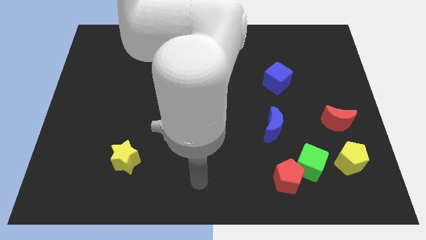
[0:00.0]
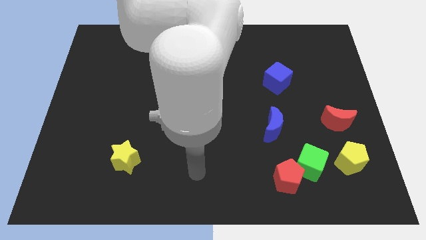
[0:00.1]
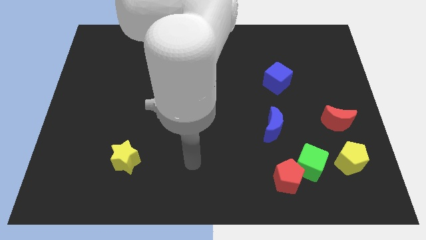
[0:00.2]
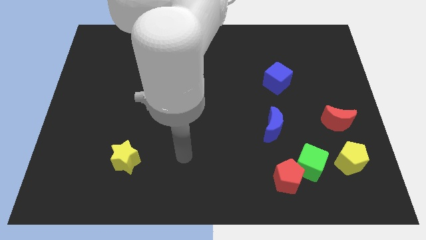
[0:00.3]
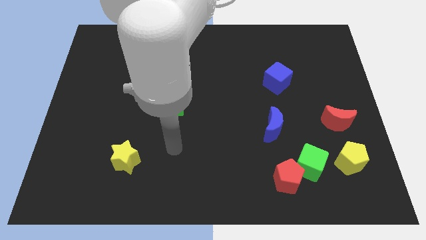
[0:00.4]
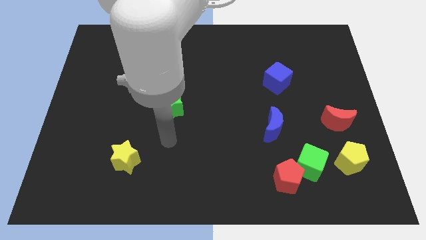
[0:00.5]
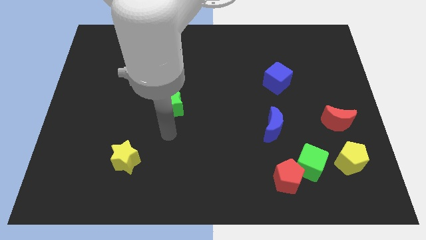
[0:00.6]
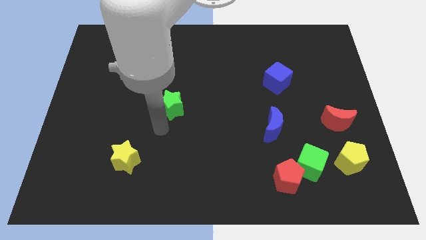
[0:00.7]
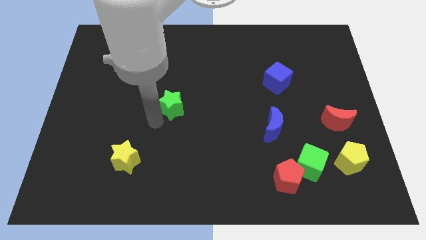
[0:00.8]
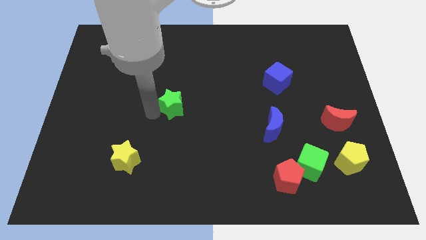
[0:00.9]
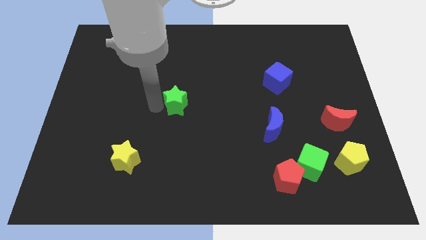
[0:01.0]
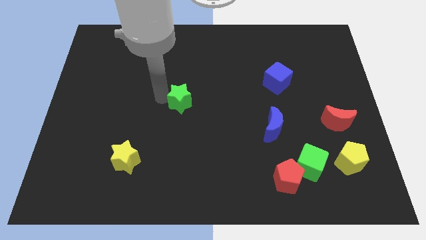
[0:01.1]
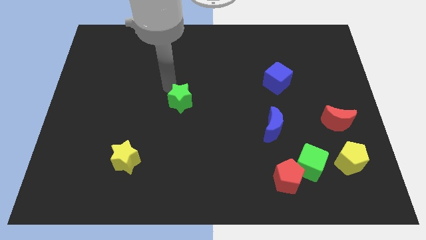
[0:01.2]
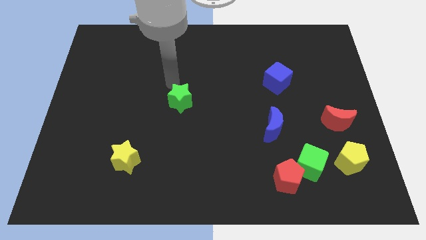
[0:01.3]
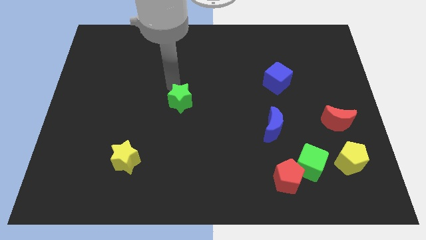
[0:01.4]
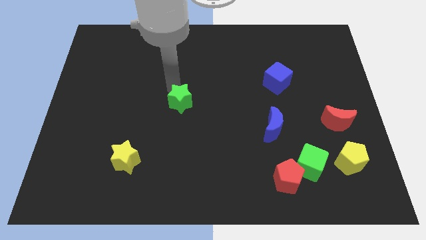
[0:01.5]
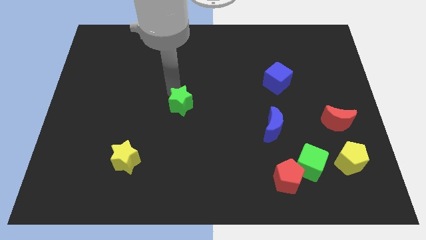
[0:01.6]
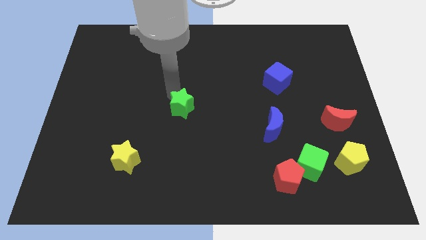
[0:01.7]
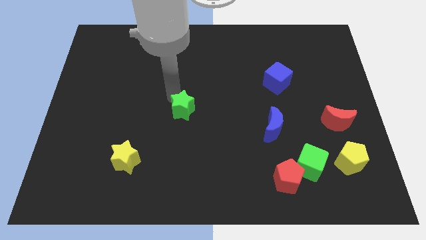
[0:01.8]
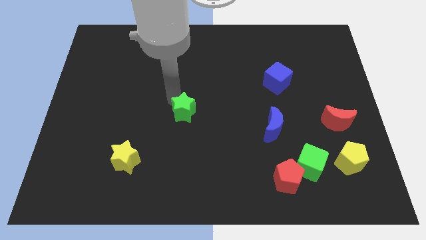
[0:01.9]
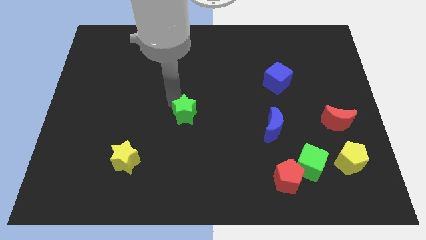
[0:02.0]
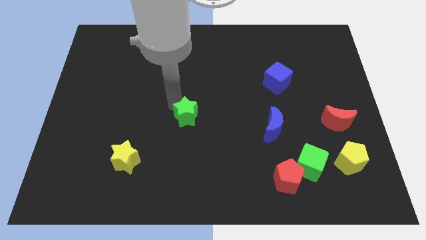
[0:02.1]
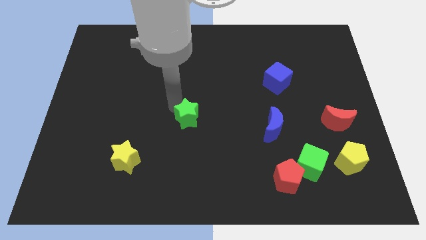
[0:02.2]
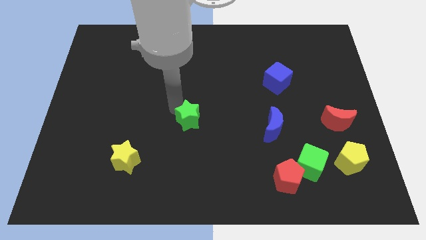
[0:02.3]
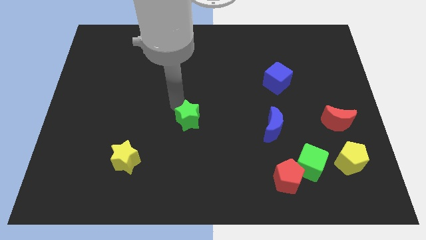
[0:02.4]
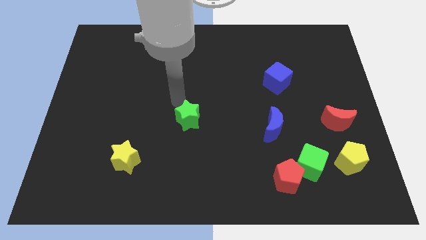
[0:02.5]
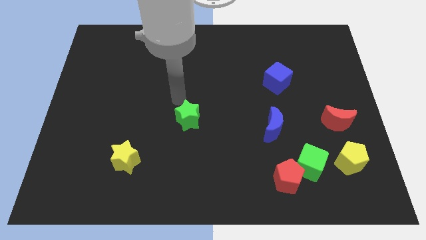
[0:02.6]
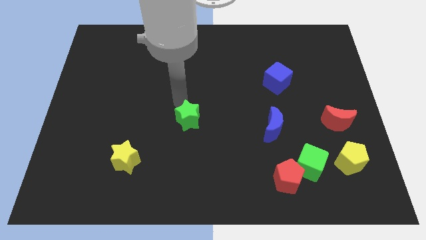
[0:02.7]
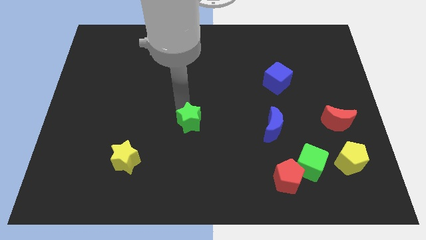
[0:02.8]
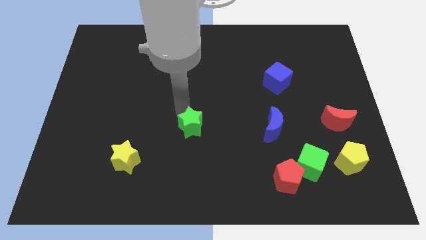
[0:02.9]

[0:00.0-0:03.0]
slide the green star a little downwards and to the right diagonally

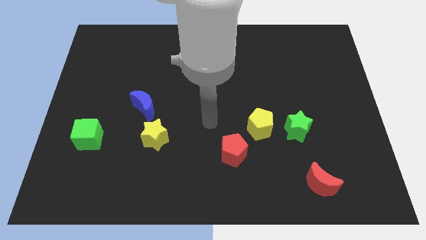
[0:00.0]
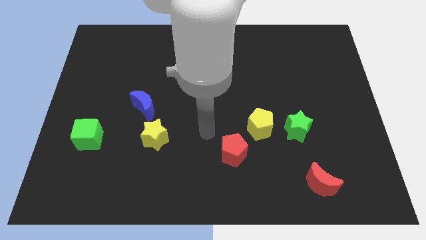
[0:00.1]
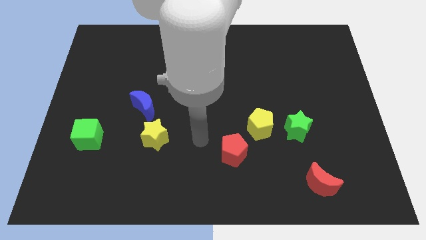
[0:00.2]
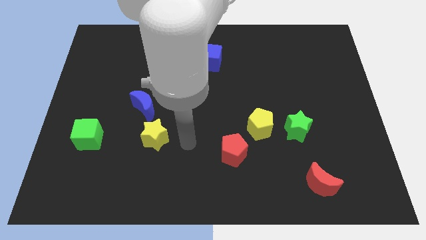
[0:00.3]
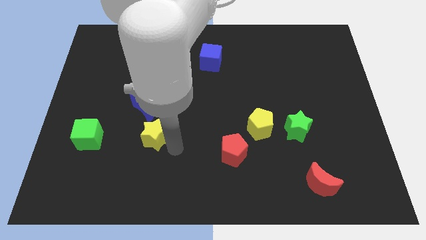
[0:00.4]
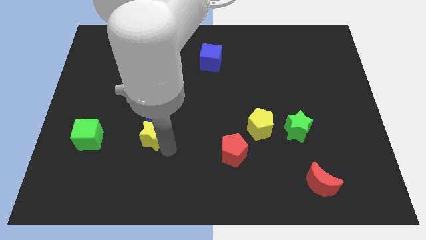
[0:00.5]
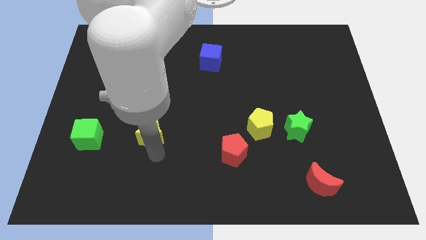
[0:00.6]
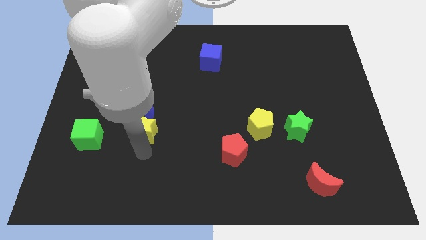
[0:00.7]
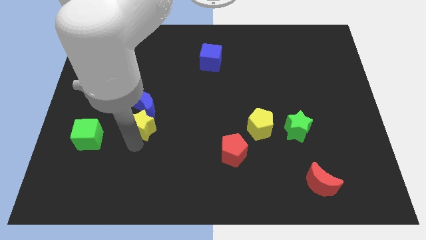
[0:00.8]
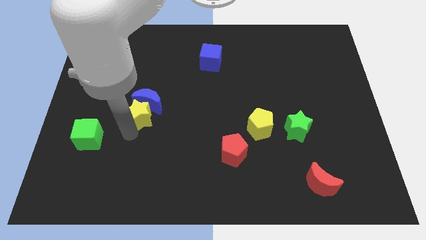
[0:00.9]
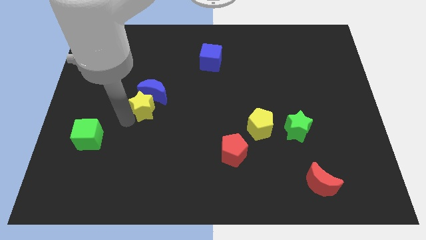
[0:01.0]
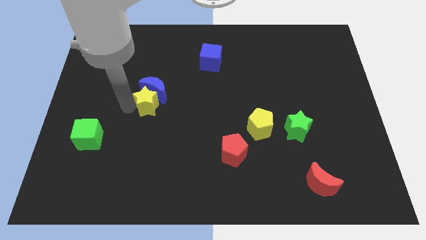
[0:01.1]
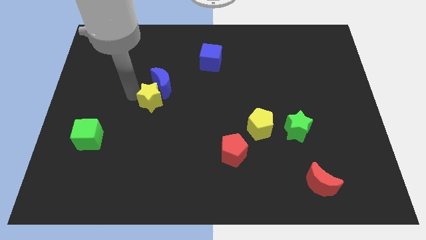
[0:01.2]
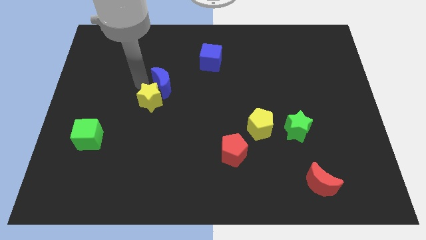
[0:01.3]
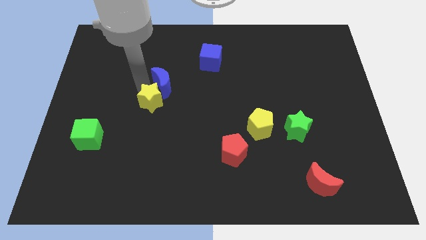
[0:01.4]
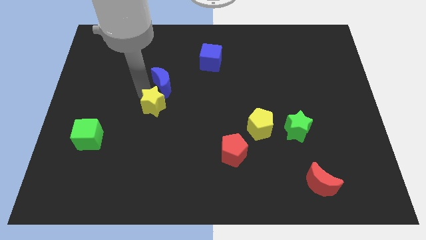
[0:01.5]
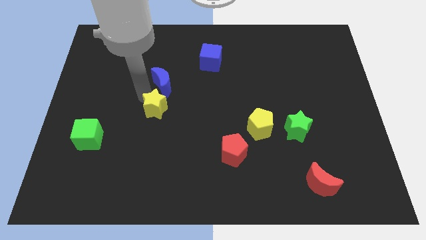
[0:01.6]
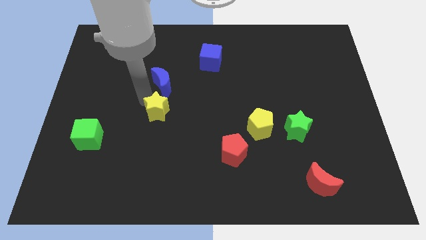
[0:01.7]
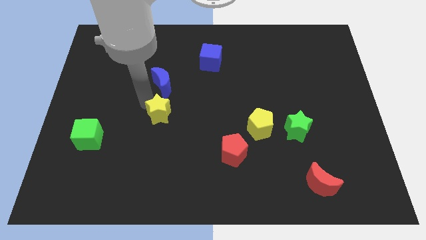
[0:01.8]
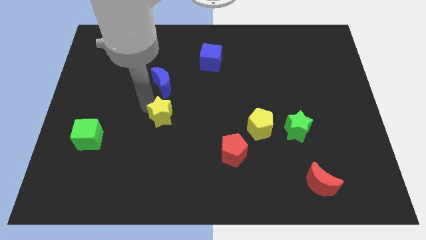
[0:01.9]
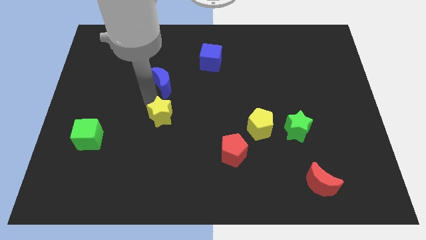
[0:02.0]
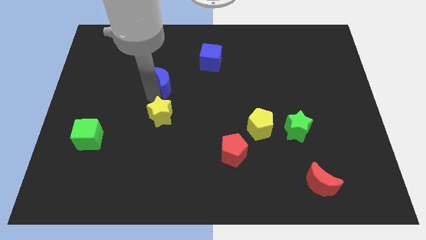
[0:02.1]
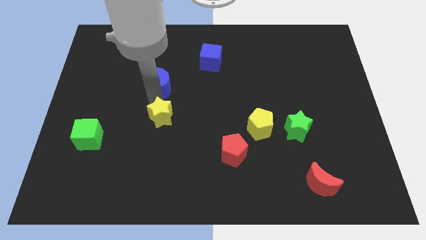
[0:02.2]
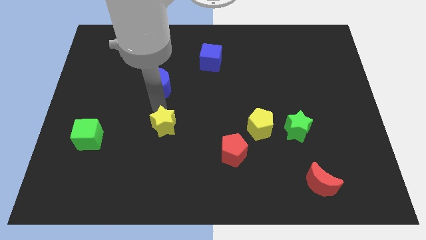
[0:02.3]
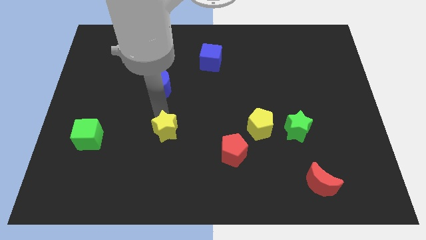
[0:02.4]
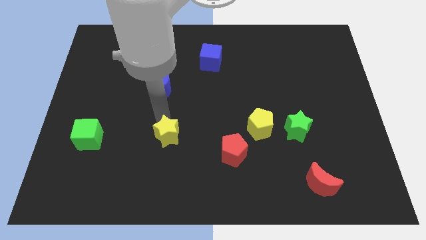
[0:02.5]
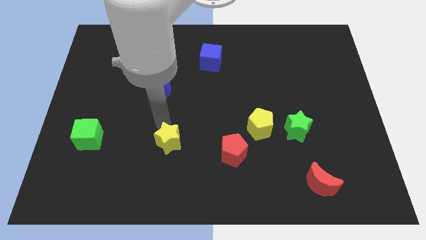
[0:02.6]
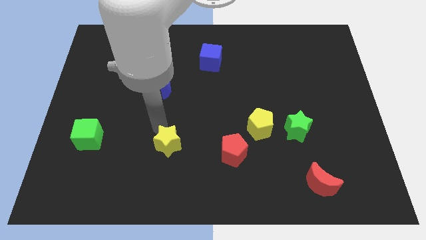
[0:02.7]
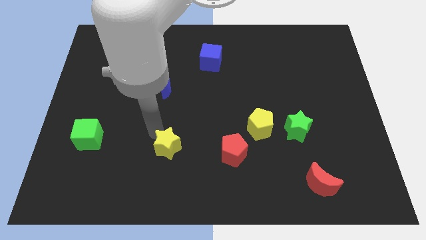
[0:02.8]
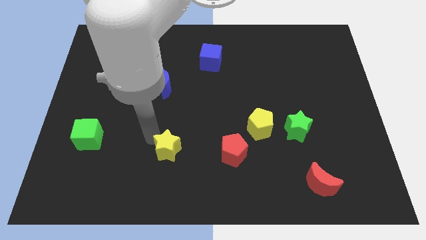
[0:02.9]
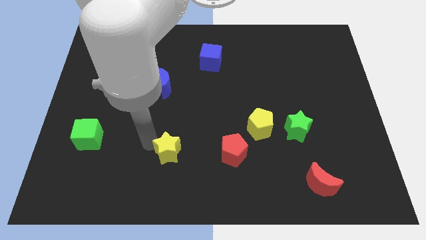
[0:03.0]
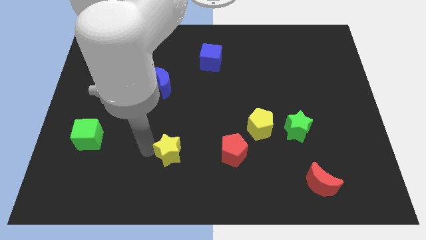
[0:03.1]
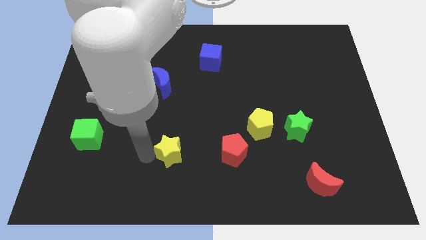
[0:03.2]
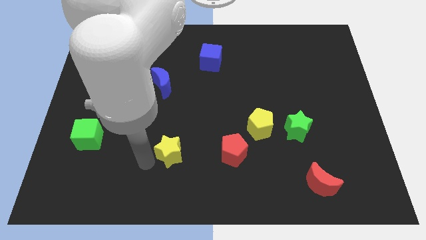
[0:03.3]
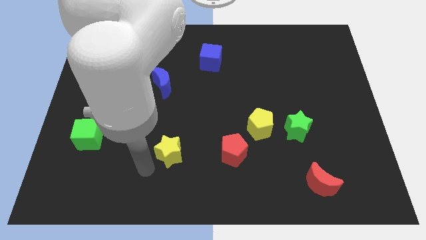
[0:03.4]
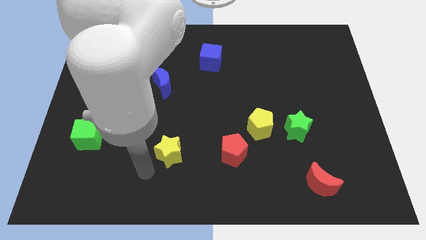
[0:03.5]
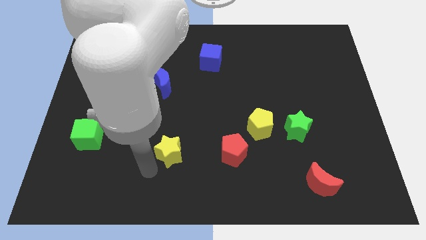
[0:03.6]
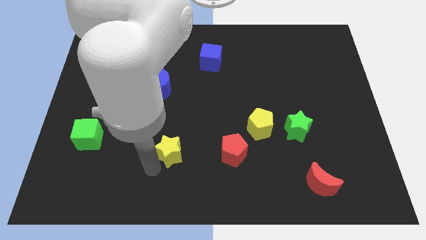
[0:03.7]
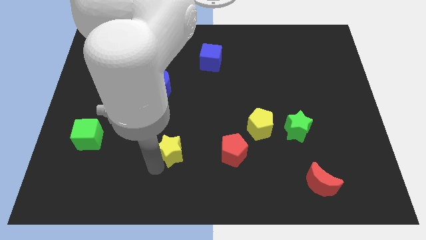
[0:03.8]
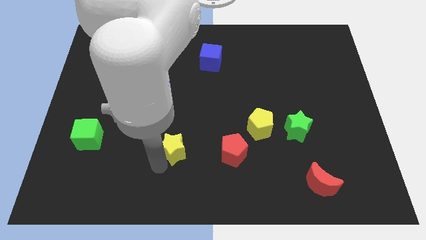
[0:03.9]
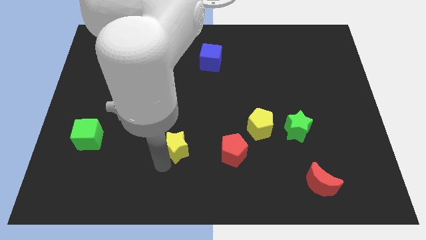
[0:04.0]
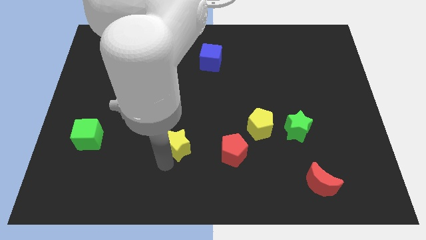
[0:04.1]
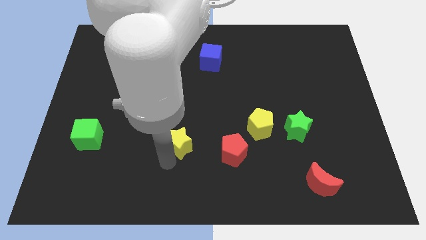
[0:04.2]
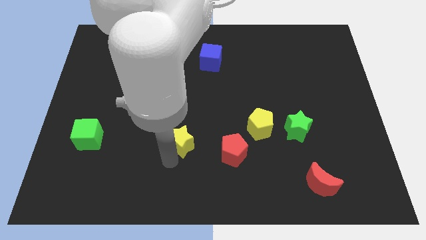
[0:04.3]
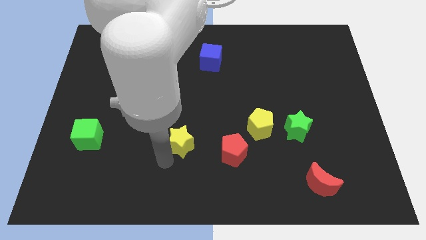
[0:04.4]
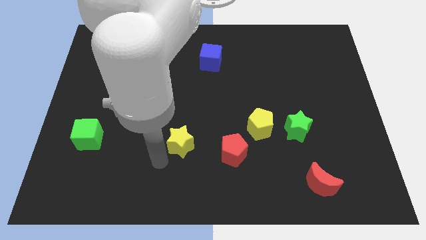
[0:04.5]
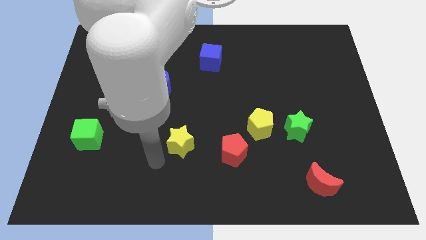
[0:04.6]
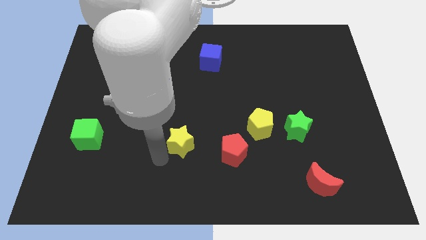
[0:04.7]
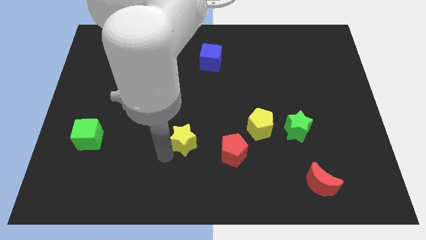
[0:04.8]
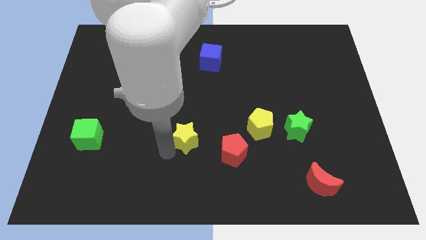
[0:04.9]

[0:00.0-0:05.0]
move the yellow star a little right

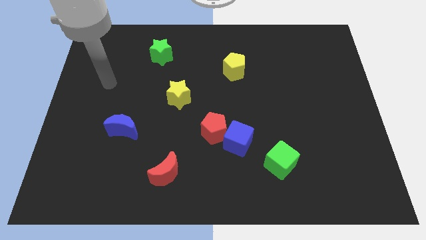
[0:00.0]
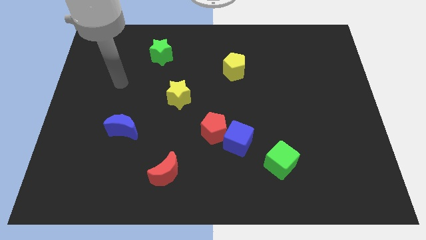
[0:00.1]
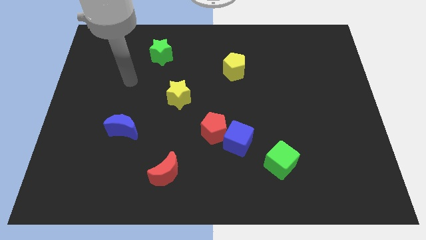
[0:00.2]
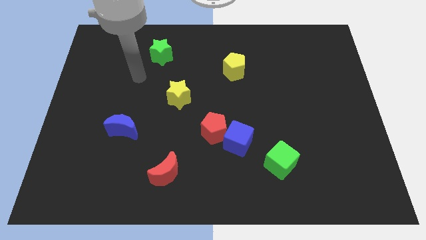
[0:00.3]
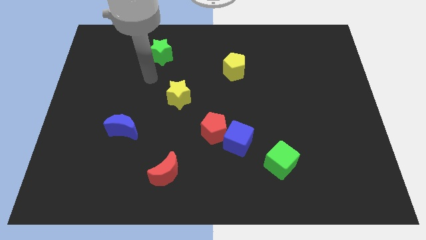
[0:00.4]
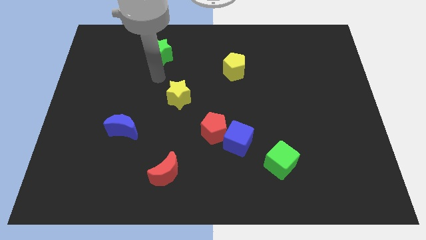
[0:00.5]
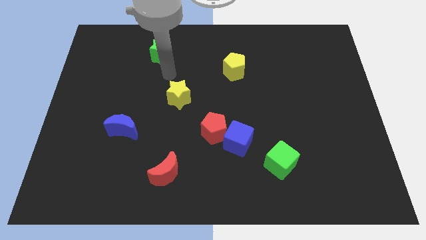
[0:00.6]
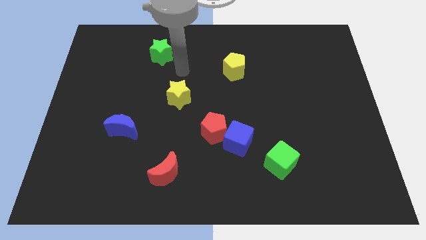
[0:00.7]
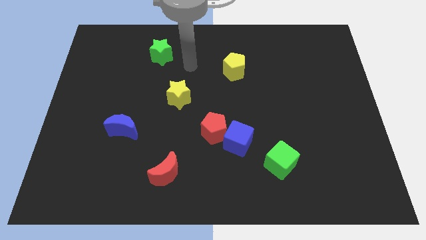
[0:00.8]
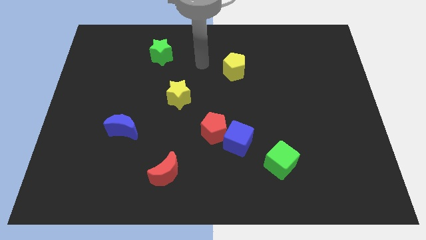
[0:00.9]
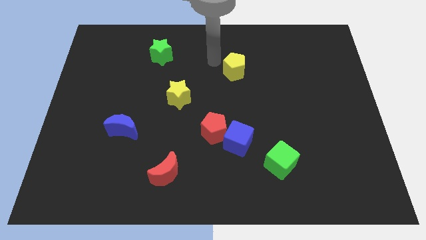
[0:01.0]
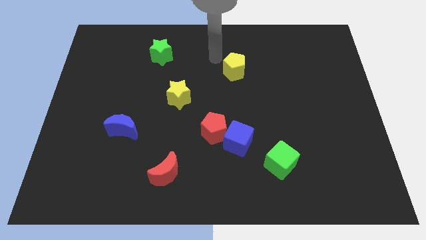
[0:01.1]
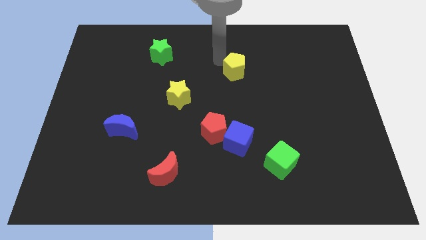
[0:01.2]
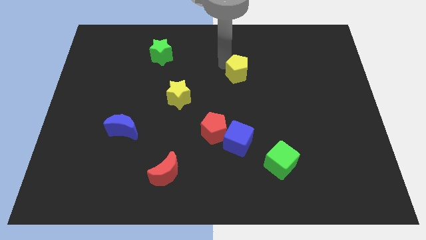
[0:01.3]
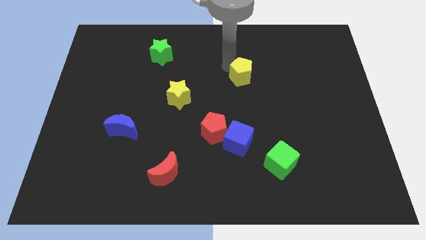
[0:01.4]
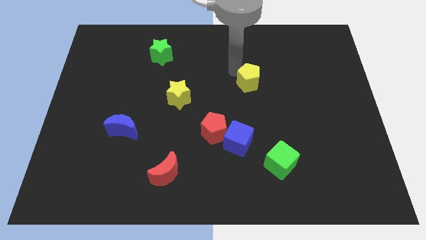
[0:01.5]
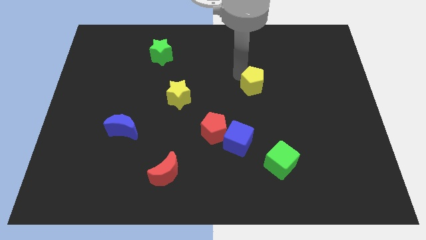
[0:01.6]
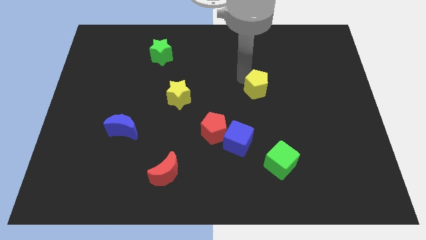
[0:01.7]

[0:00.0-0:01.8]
push the yellow pentagon diagonally down and to the right somewhat
